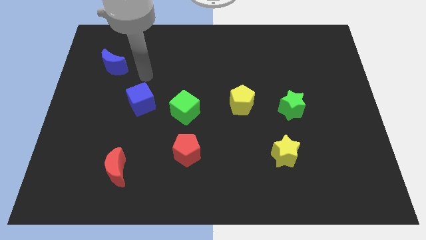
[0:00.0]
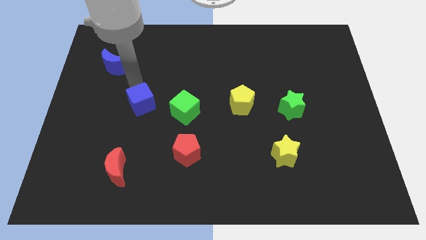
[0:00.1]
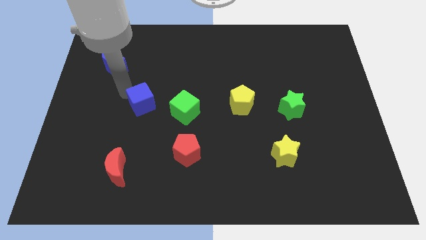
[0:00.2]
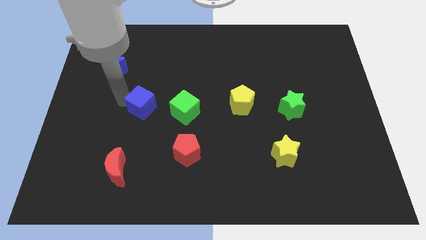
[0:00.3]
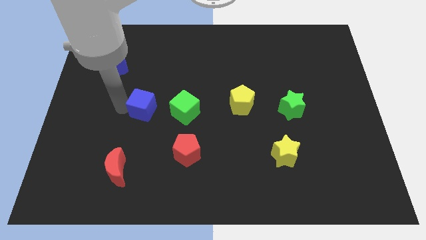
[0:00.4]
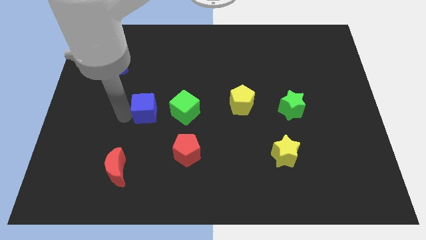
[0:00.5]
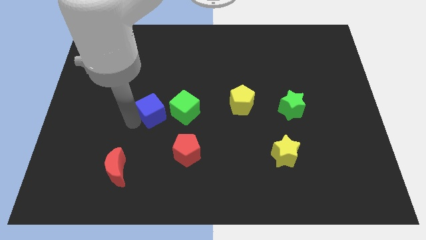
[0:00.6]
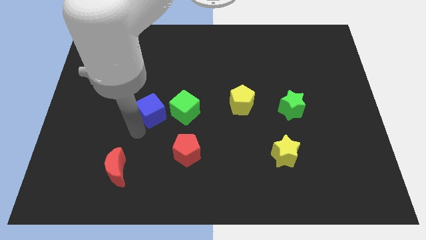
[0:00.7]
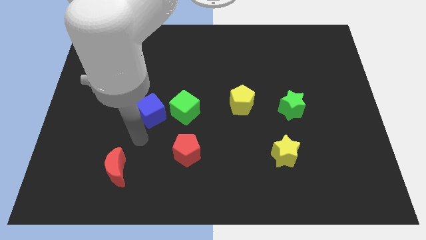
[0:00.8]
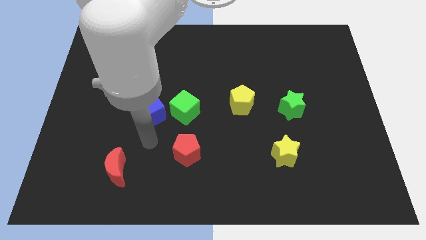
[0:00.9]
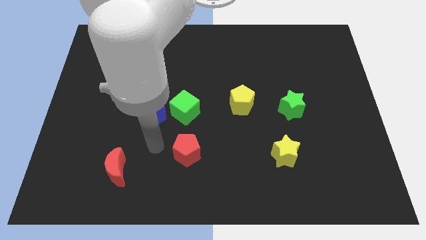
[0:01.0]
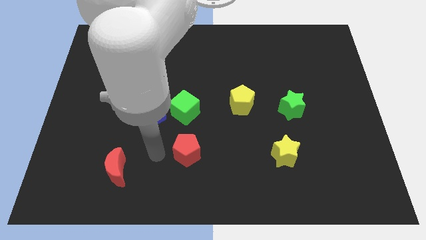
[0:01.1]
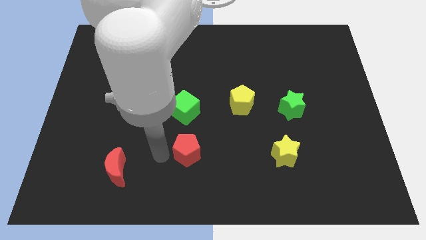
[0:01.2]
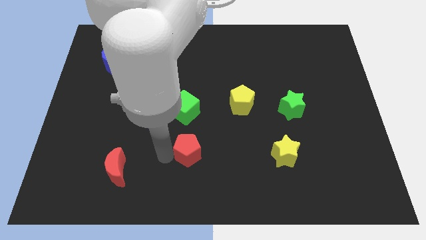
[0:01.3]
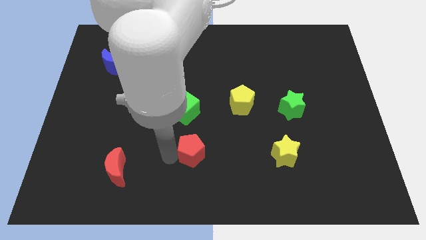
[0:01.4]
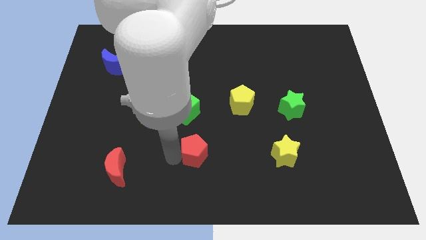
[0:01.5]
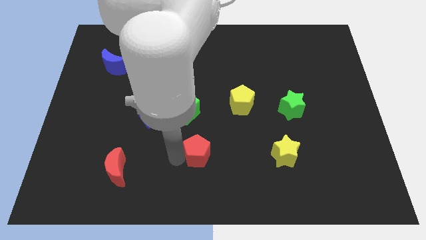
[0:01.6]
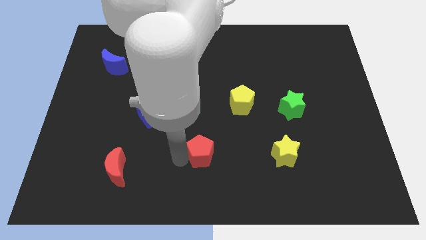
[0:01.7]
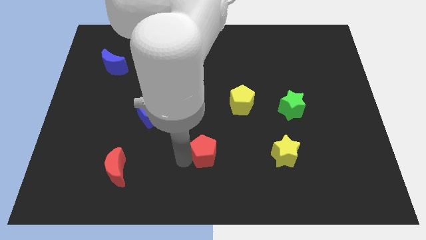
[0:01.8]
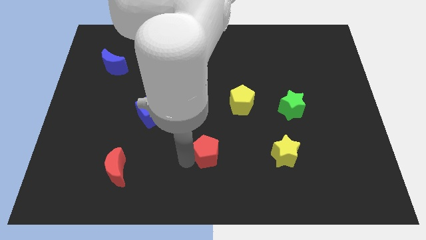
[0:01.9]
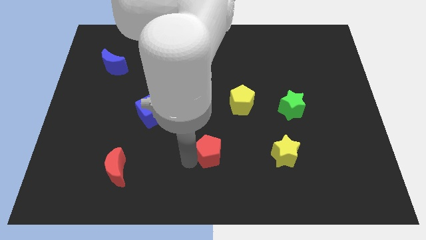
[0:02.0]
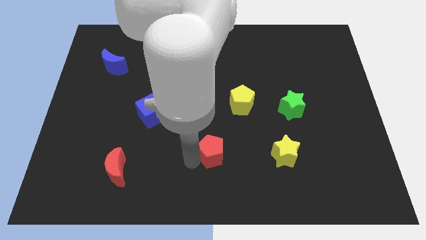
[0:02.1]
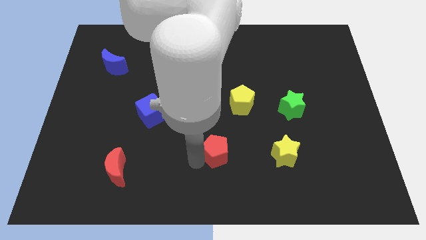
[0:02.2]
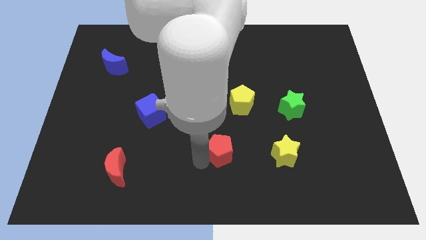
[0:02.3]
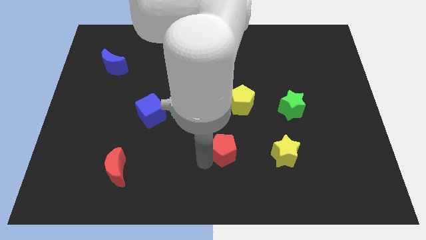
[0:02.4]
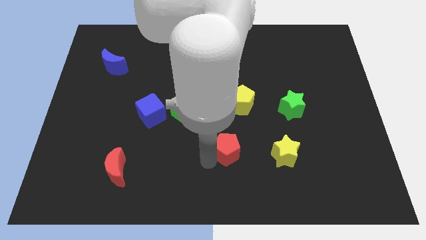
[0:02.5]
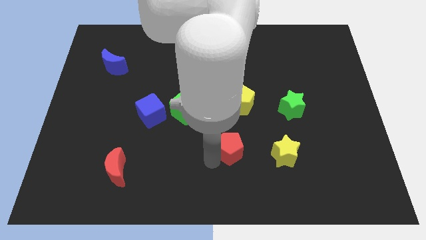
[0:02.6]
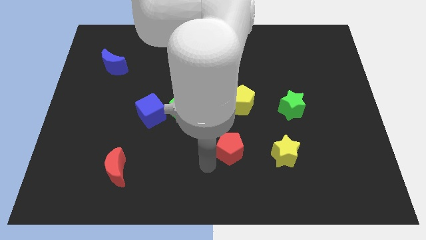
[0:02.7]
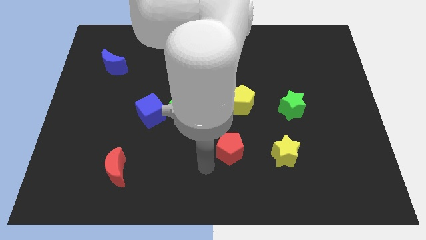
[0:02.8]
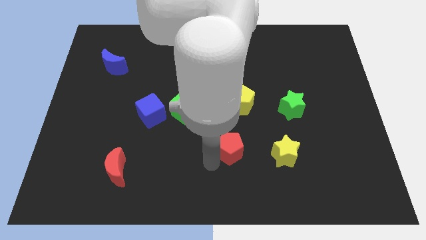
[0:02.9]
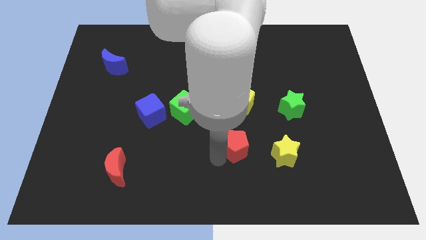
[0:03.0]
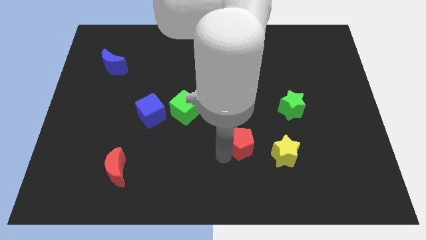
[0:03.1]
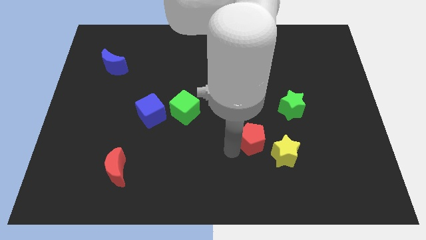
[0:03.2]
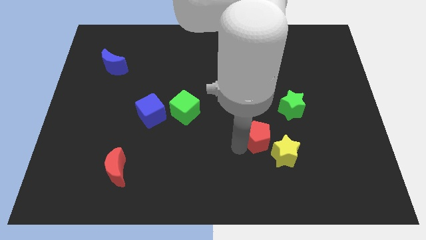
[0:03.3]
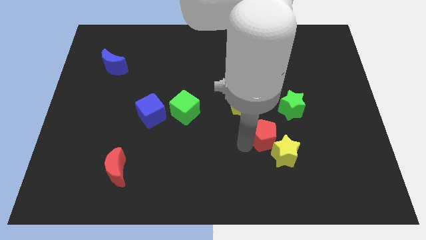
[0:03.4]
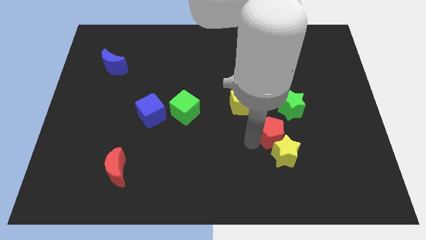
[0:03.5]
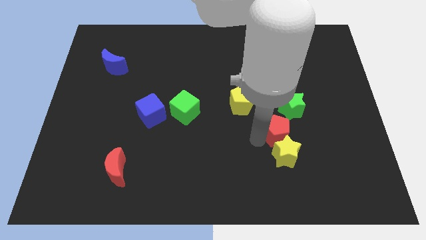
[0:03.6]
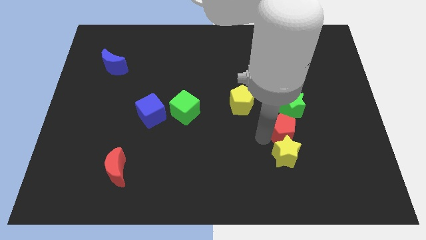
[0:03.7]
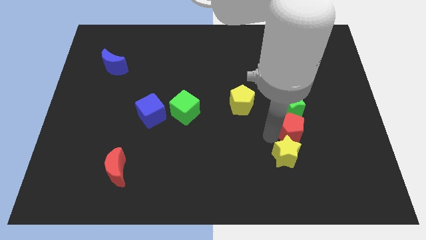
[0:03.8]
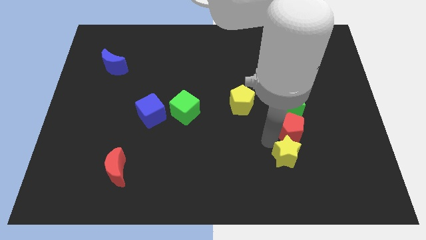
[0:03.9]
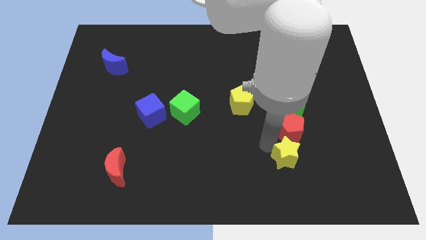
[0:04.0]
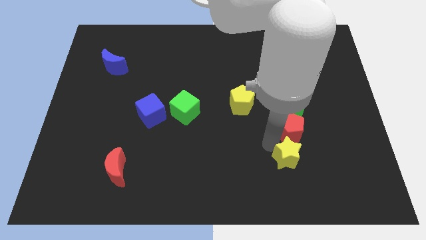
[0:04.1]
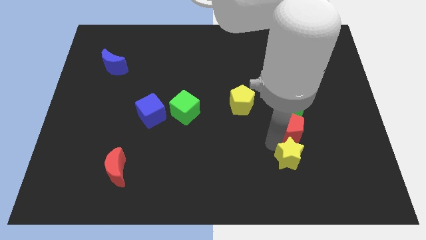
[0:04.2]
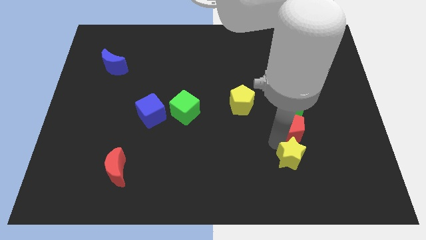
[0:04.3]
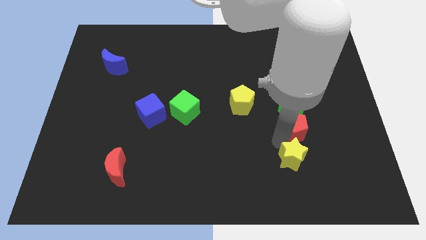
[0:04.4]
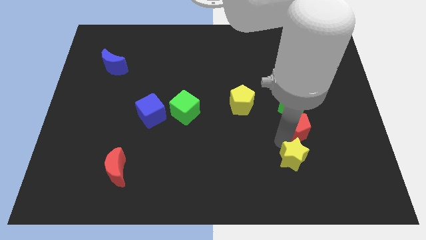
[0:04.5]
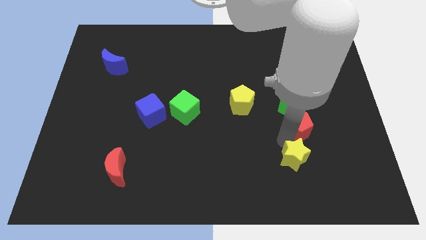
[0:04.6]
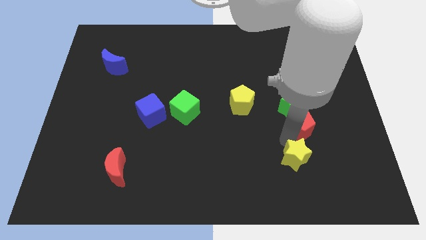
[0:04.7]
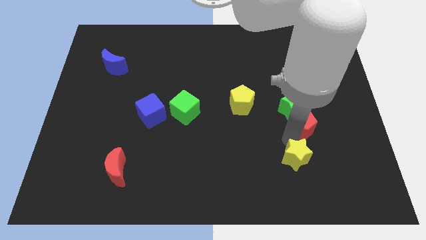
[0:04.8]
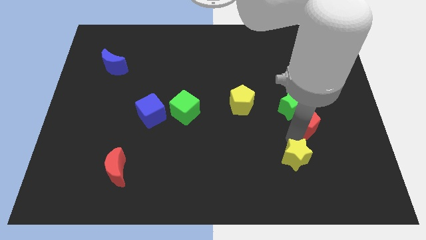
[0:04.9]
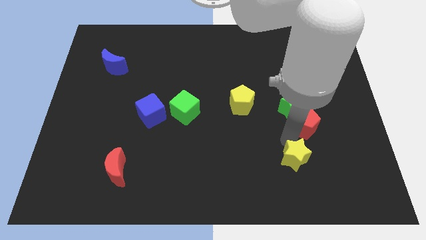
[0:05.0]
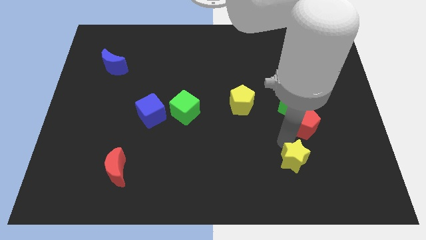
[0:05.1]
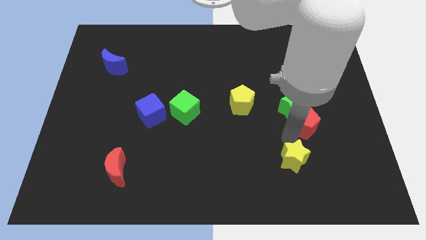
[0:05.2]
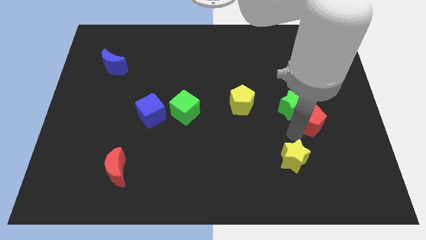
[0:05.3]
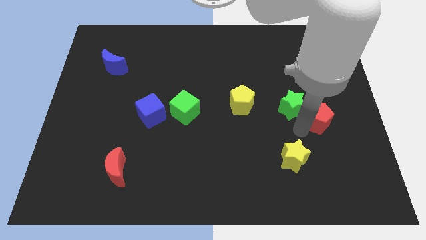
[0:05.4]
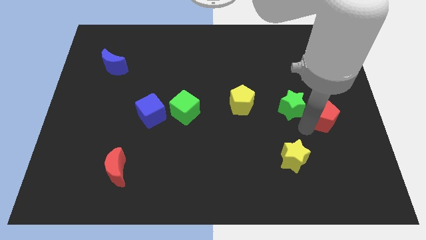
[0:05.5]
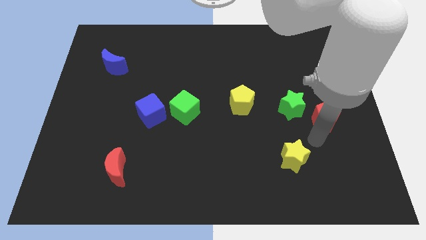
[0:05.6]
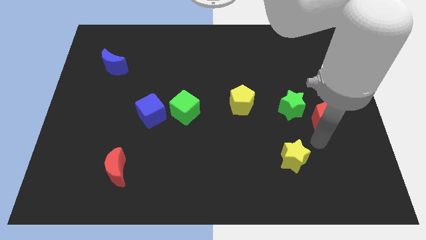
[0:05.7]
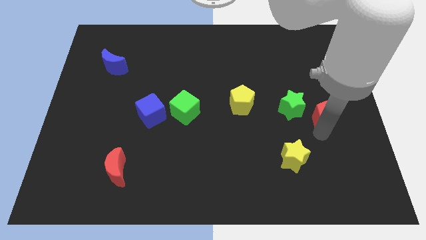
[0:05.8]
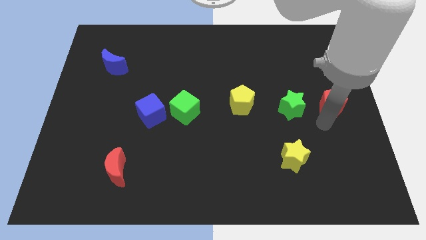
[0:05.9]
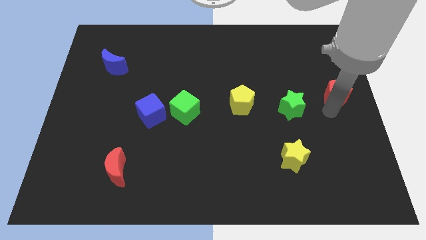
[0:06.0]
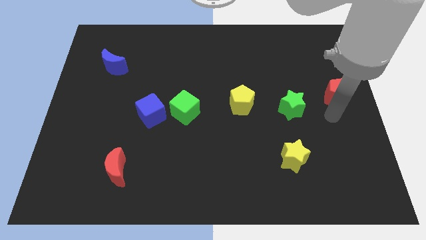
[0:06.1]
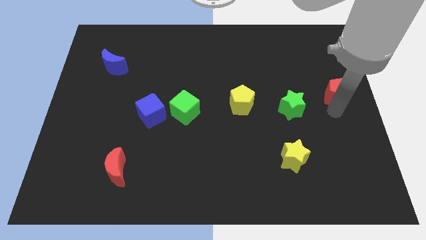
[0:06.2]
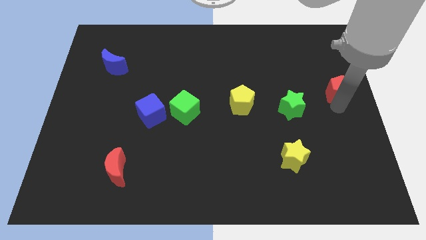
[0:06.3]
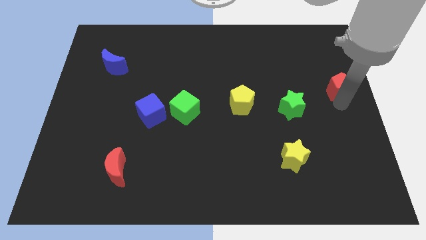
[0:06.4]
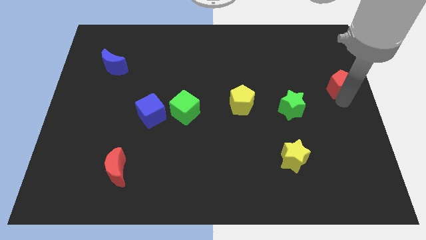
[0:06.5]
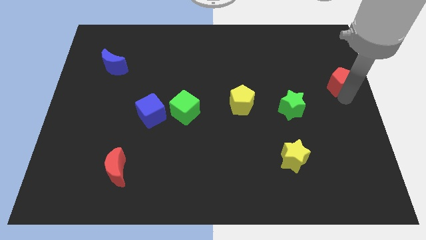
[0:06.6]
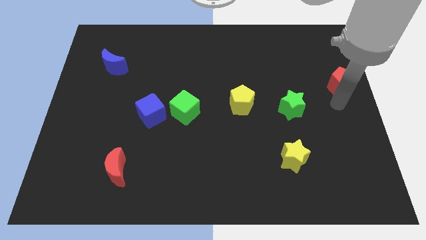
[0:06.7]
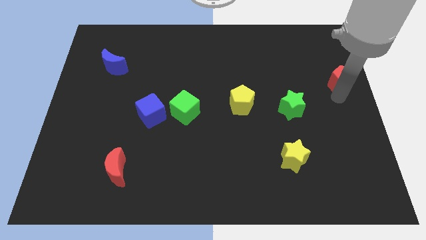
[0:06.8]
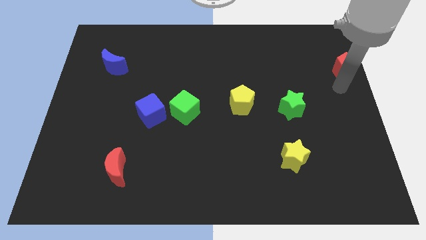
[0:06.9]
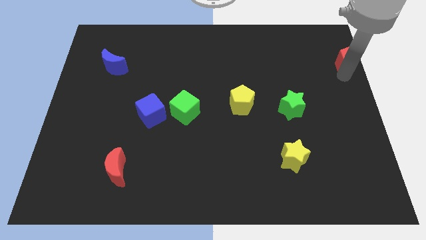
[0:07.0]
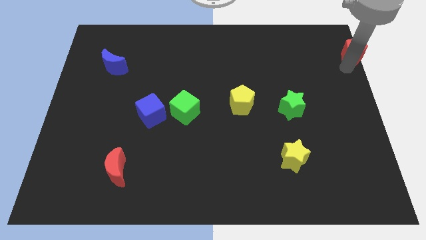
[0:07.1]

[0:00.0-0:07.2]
move the red pentagon to the top right
